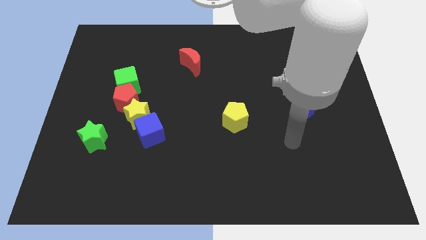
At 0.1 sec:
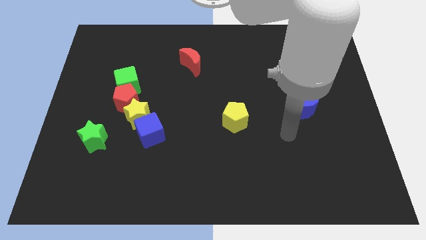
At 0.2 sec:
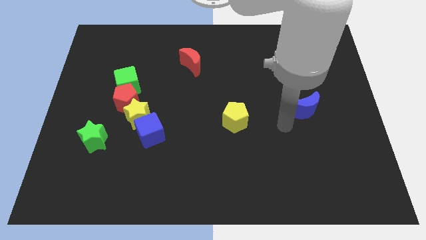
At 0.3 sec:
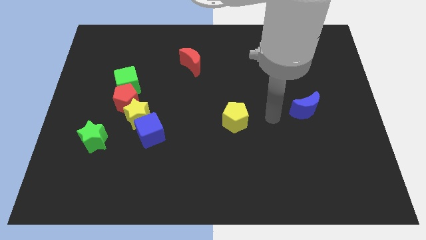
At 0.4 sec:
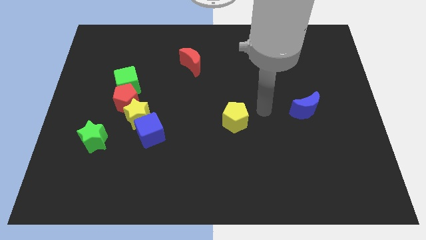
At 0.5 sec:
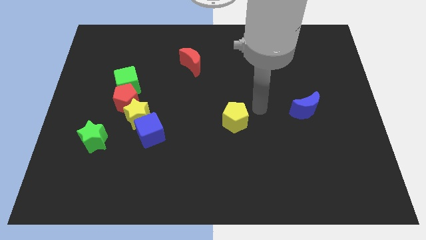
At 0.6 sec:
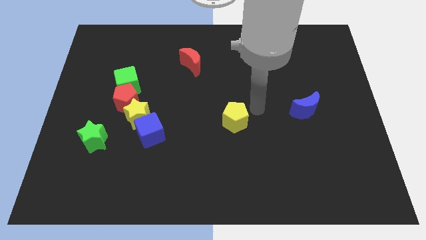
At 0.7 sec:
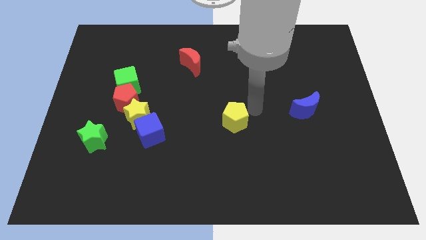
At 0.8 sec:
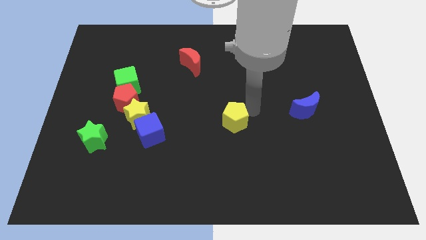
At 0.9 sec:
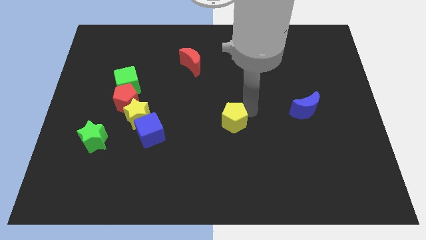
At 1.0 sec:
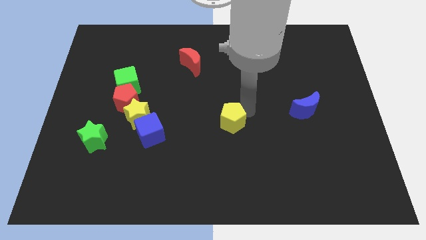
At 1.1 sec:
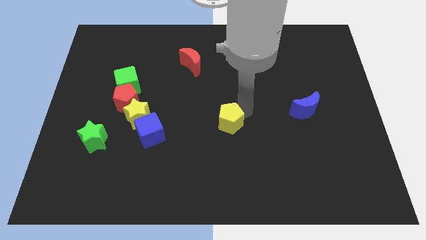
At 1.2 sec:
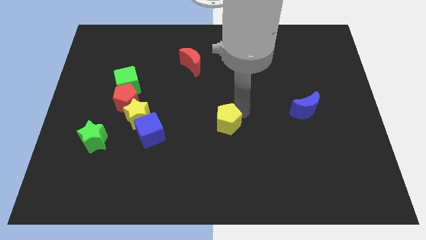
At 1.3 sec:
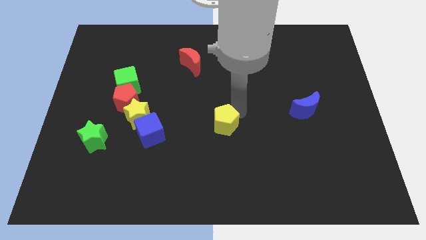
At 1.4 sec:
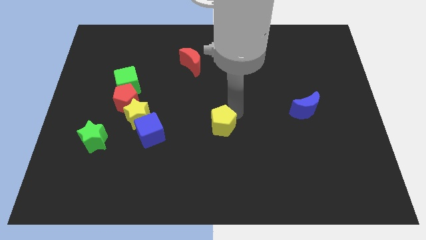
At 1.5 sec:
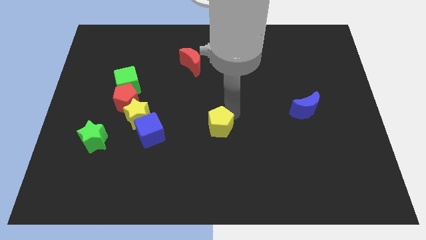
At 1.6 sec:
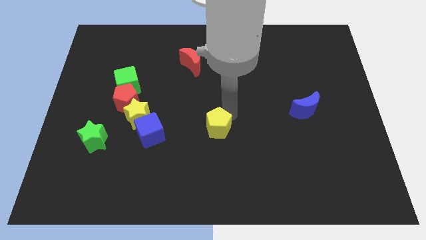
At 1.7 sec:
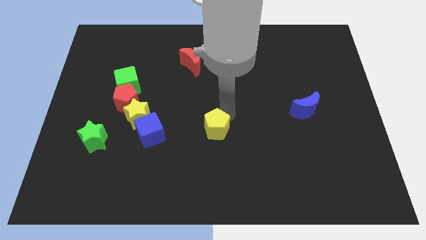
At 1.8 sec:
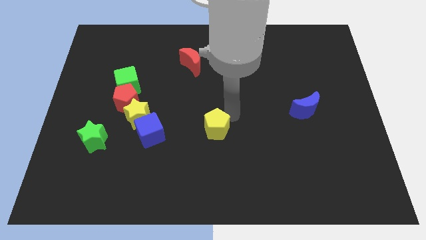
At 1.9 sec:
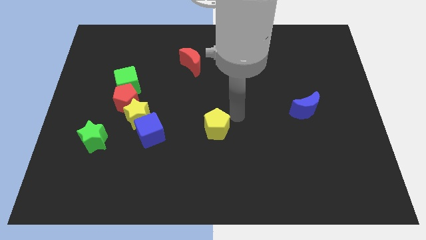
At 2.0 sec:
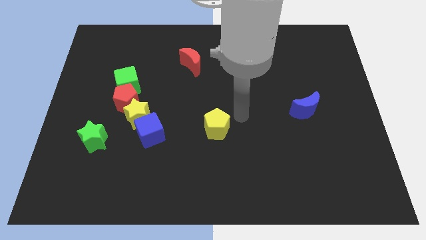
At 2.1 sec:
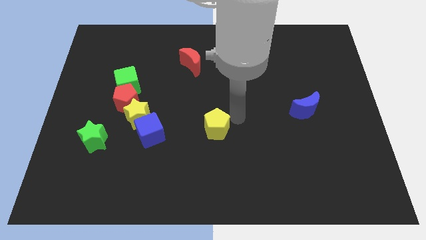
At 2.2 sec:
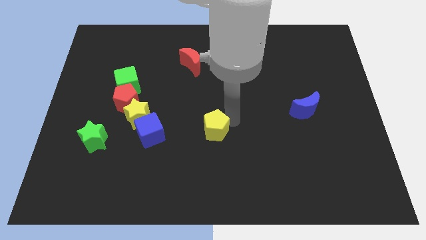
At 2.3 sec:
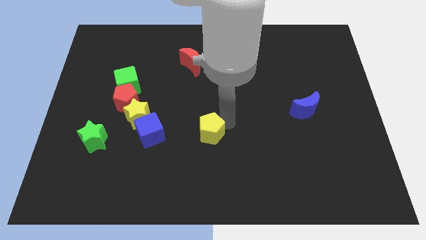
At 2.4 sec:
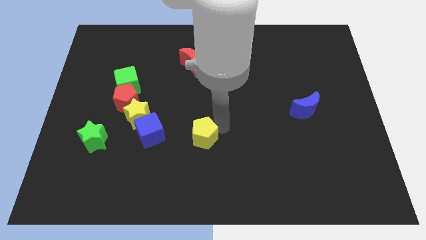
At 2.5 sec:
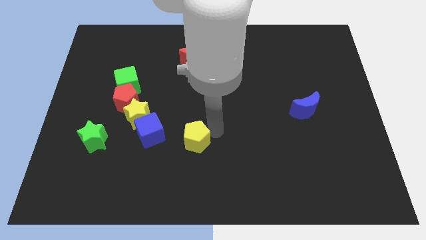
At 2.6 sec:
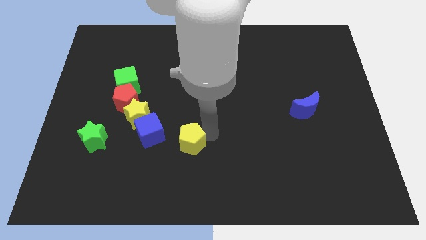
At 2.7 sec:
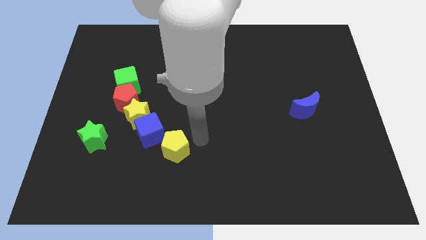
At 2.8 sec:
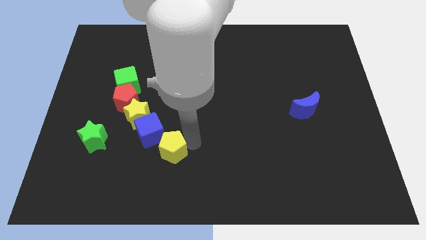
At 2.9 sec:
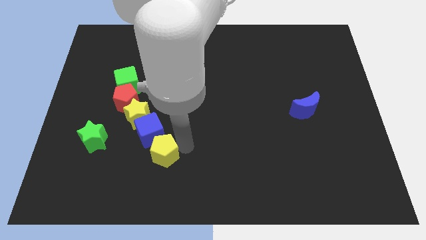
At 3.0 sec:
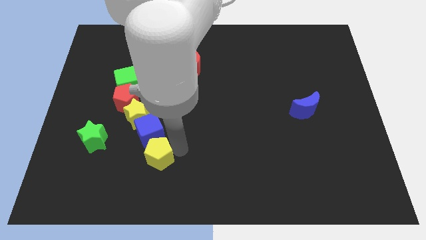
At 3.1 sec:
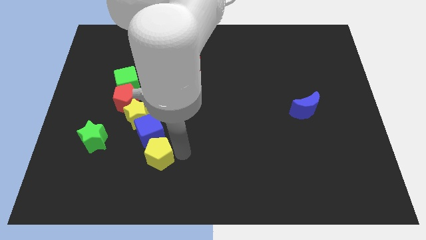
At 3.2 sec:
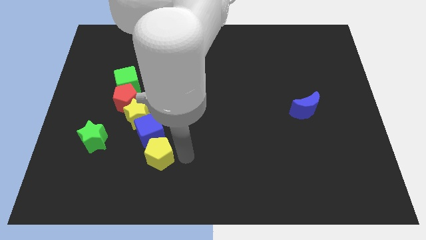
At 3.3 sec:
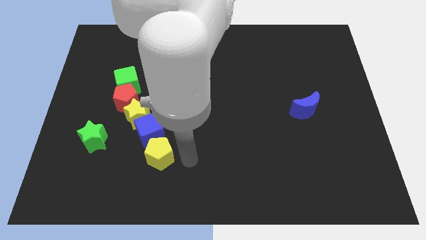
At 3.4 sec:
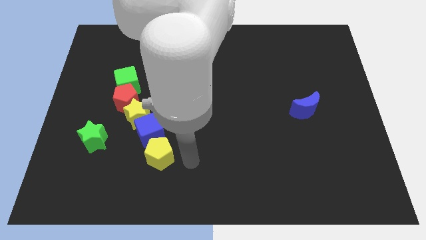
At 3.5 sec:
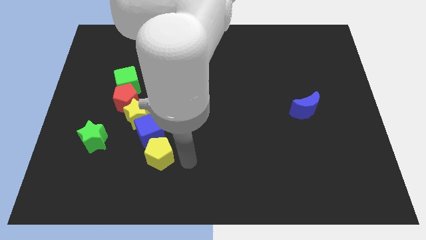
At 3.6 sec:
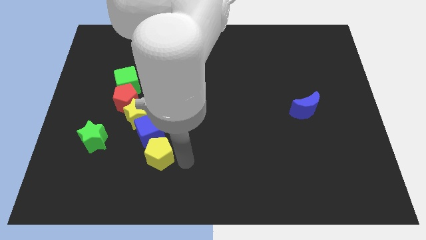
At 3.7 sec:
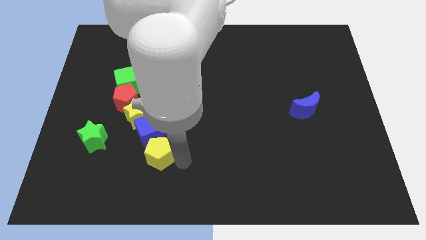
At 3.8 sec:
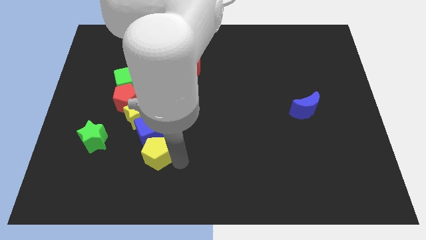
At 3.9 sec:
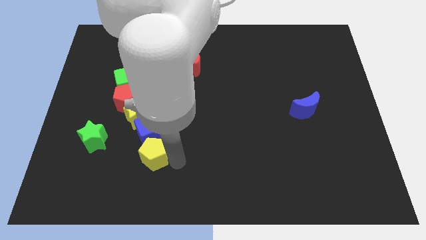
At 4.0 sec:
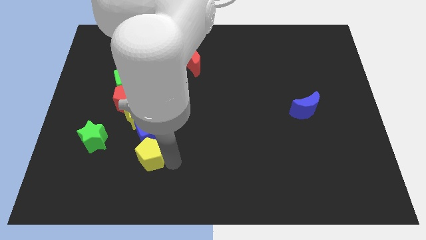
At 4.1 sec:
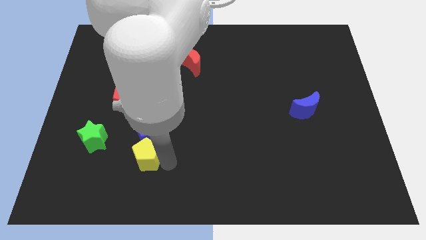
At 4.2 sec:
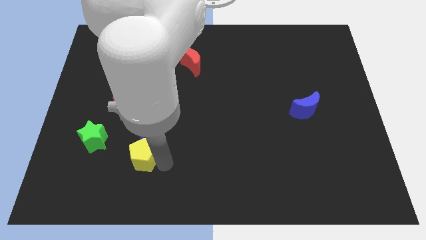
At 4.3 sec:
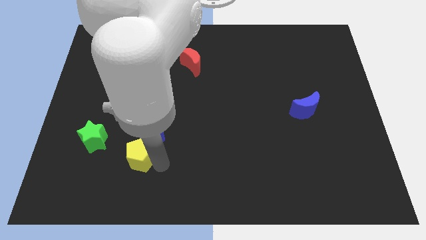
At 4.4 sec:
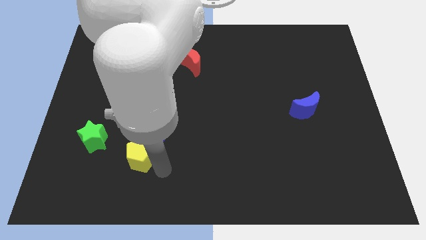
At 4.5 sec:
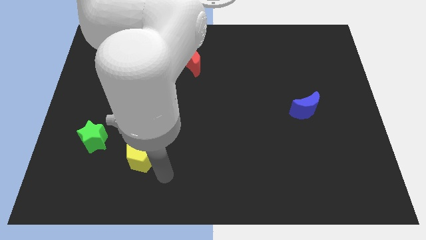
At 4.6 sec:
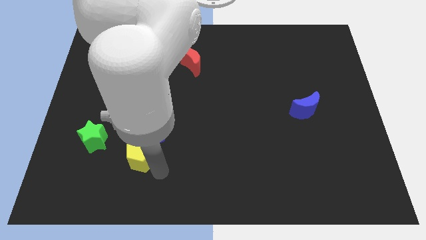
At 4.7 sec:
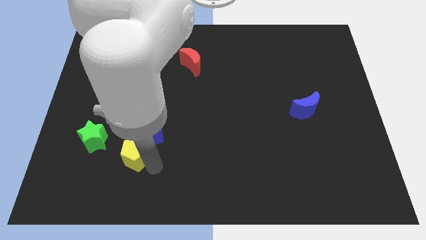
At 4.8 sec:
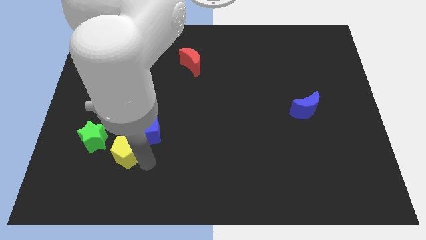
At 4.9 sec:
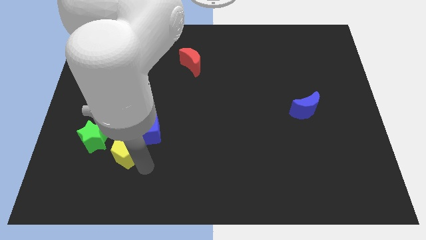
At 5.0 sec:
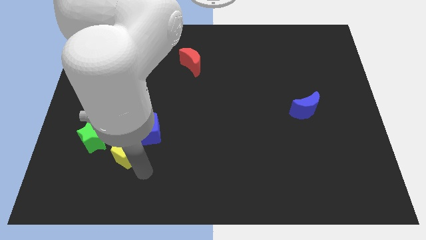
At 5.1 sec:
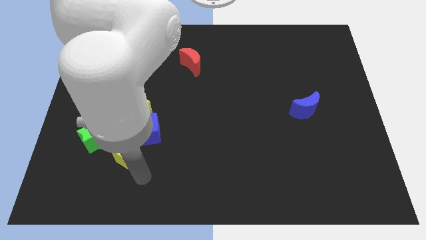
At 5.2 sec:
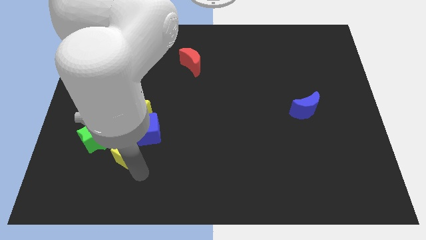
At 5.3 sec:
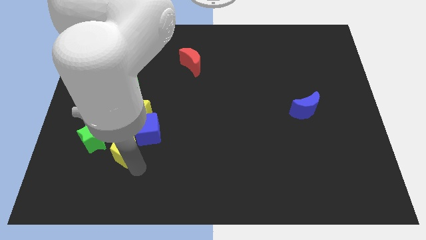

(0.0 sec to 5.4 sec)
slide the yellow pentagon left

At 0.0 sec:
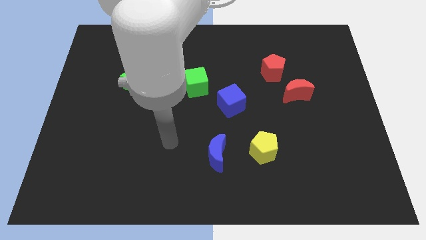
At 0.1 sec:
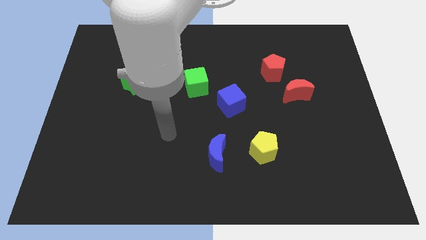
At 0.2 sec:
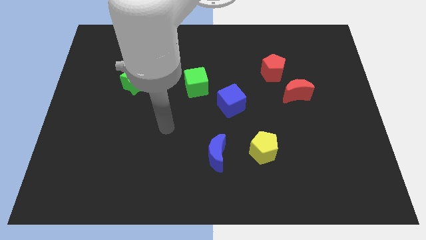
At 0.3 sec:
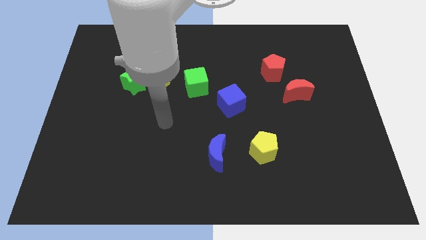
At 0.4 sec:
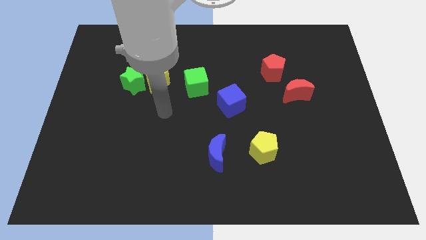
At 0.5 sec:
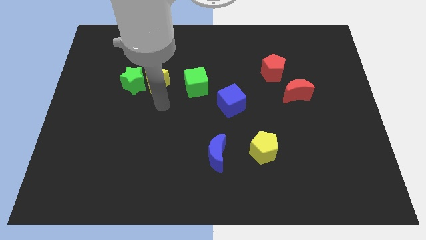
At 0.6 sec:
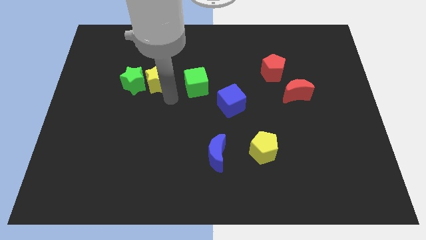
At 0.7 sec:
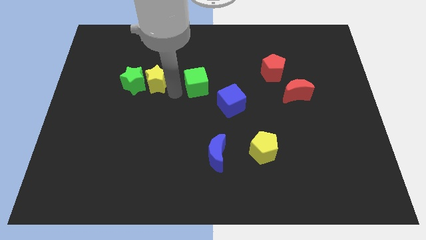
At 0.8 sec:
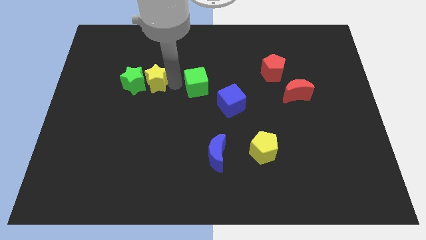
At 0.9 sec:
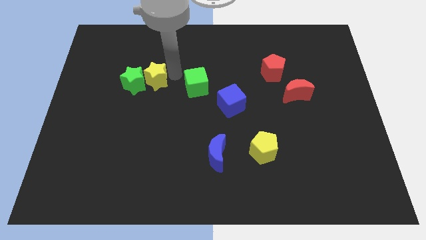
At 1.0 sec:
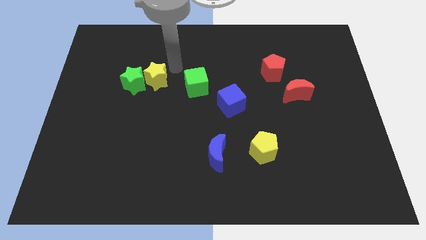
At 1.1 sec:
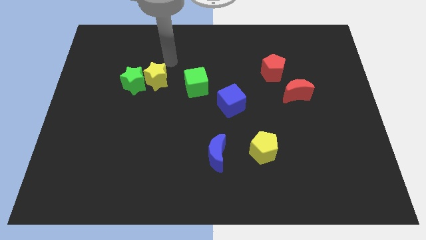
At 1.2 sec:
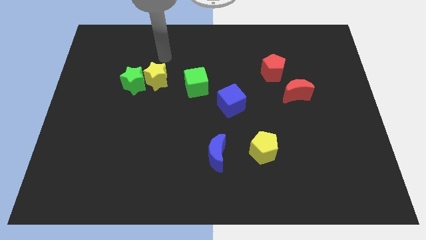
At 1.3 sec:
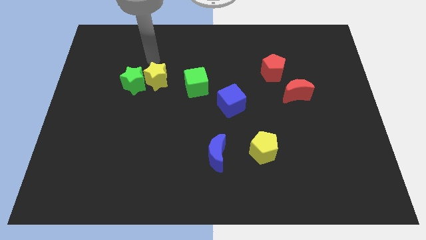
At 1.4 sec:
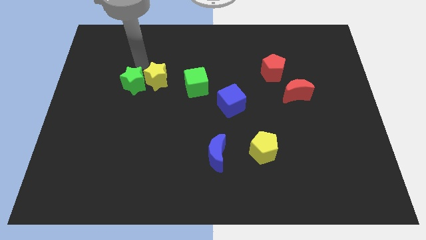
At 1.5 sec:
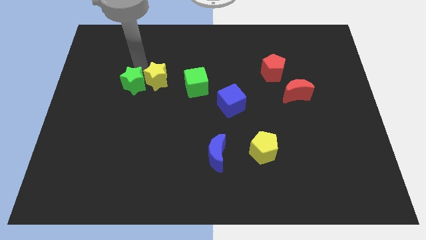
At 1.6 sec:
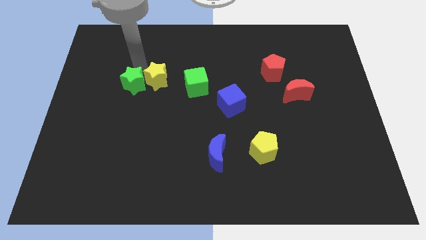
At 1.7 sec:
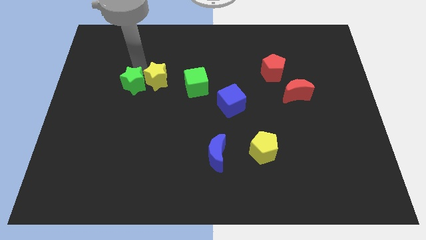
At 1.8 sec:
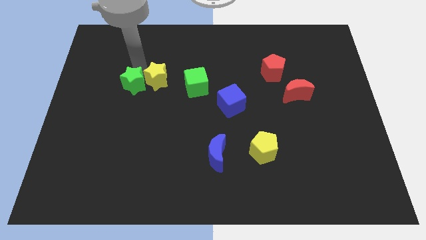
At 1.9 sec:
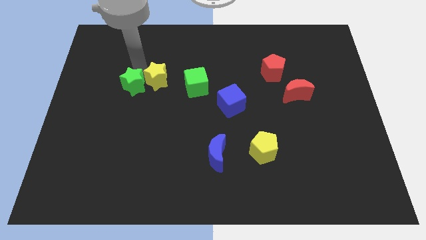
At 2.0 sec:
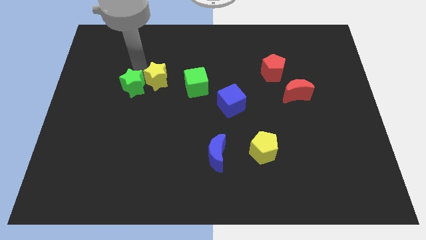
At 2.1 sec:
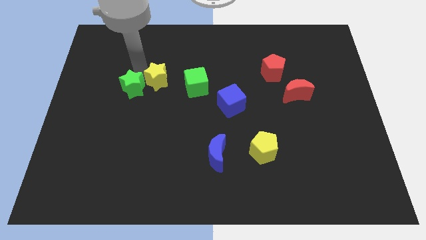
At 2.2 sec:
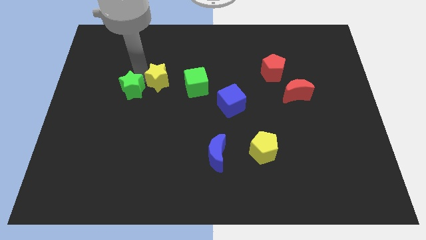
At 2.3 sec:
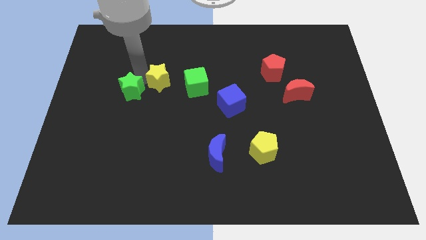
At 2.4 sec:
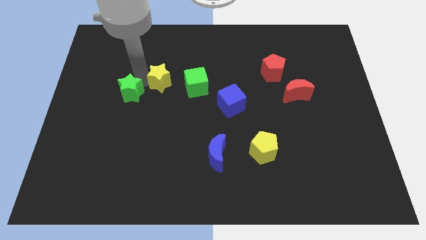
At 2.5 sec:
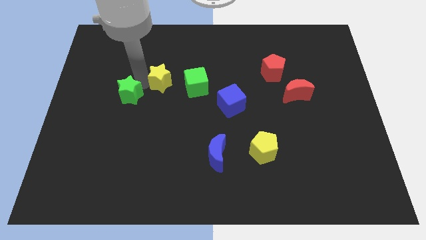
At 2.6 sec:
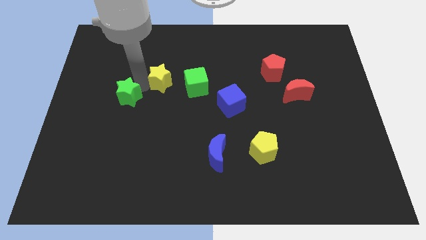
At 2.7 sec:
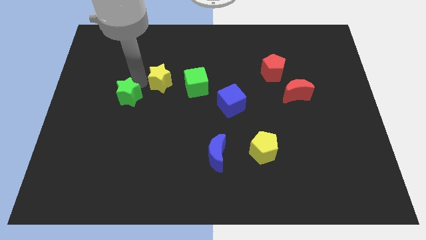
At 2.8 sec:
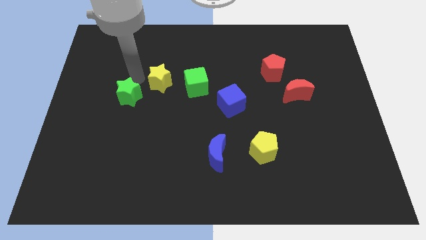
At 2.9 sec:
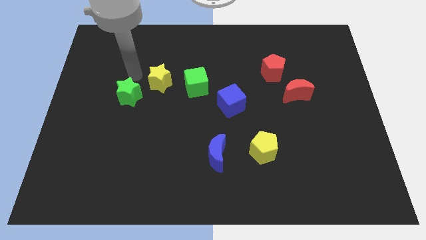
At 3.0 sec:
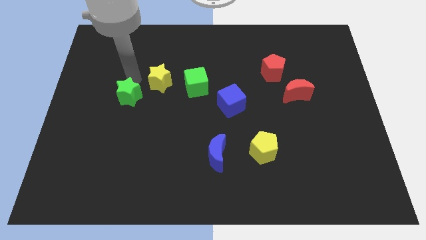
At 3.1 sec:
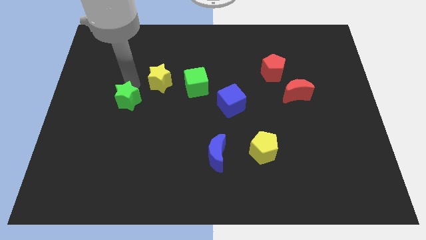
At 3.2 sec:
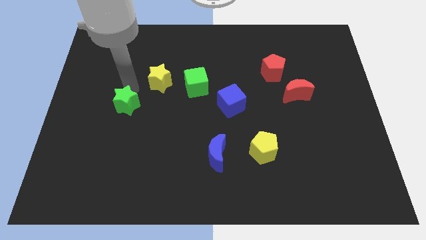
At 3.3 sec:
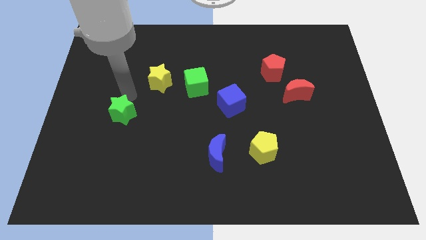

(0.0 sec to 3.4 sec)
slightly move the green star downwards
